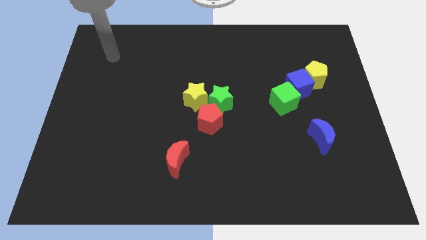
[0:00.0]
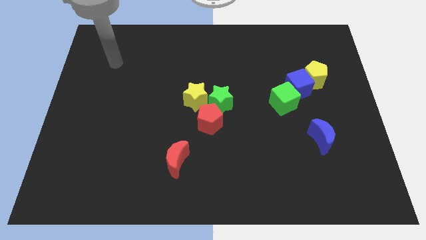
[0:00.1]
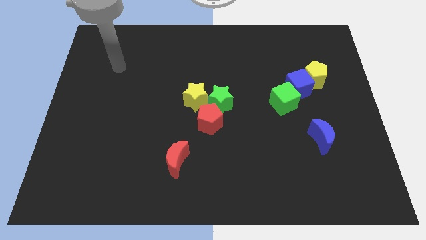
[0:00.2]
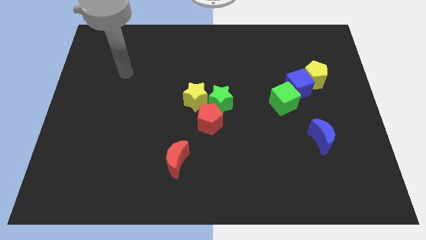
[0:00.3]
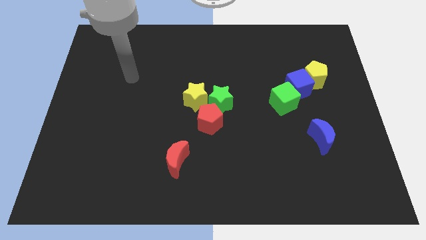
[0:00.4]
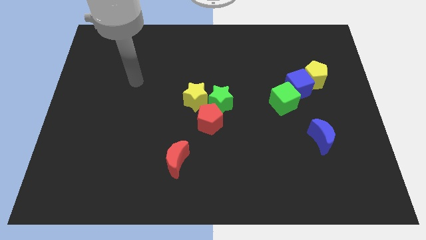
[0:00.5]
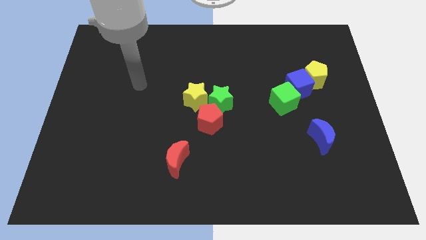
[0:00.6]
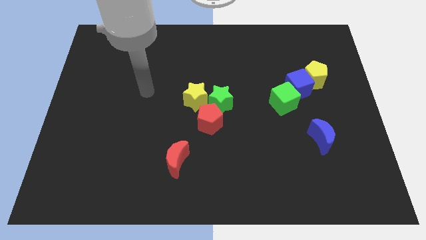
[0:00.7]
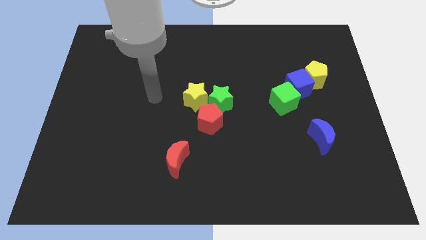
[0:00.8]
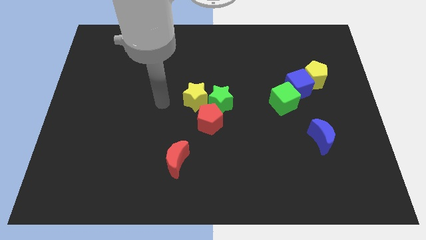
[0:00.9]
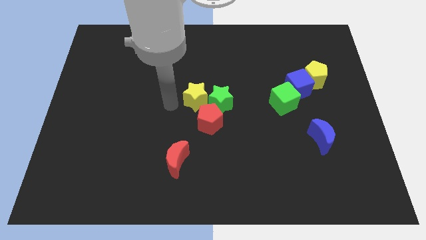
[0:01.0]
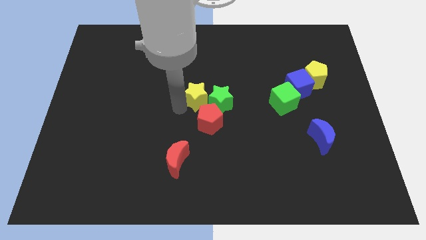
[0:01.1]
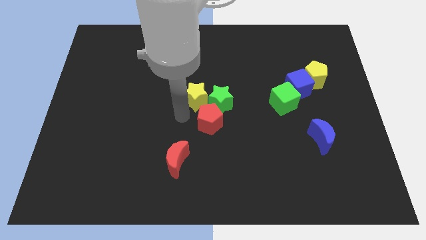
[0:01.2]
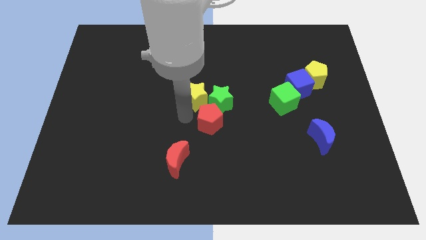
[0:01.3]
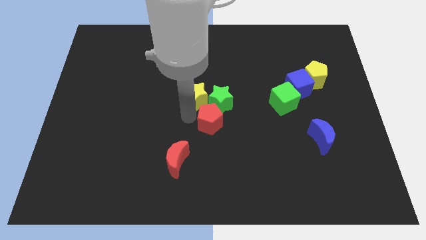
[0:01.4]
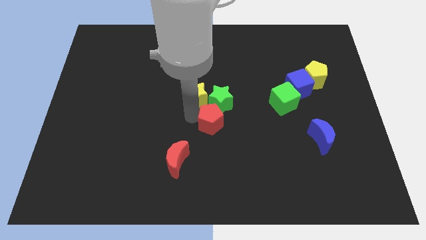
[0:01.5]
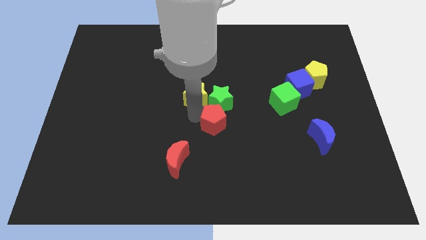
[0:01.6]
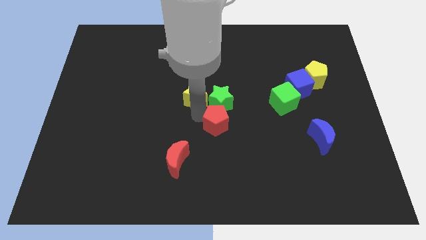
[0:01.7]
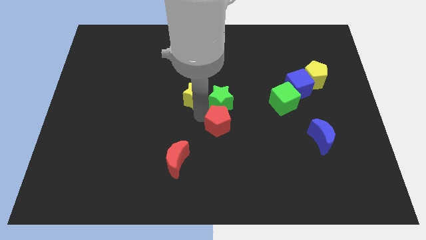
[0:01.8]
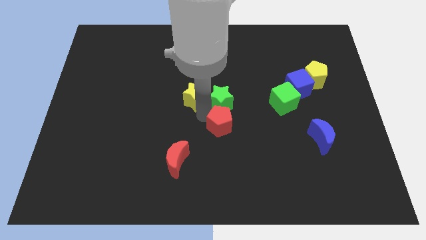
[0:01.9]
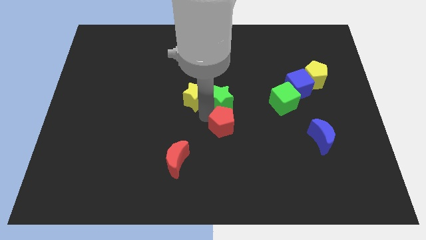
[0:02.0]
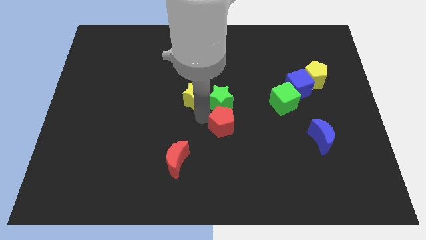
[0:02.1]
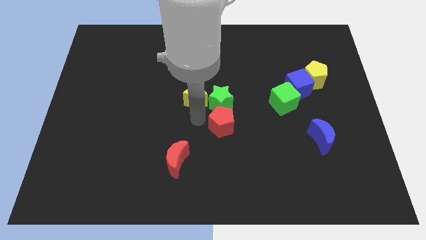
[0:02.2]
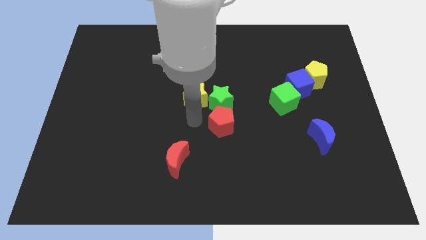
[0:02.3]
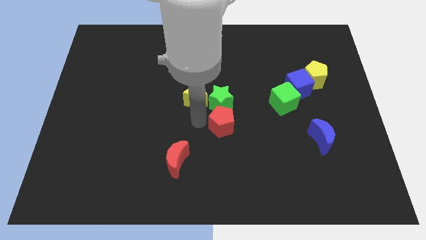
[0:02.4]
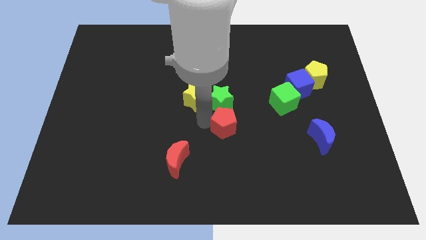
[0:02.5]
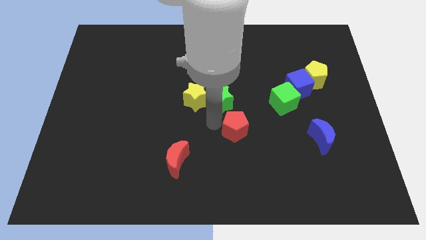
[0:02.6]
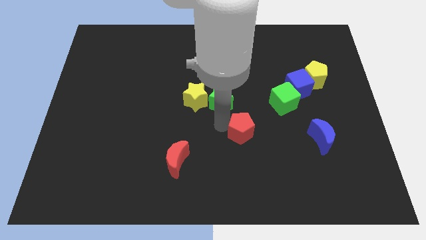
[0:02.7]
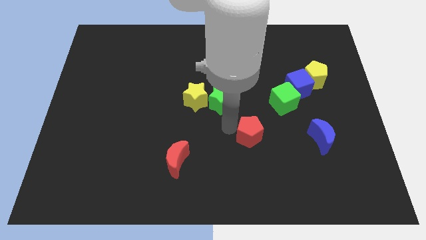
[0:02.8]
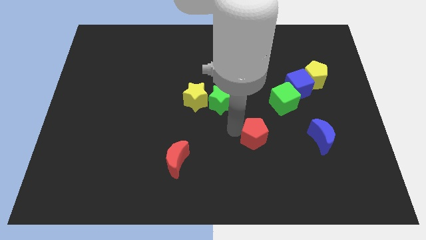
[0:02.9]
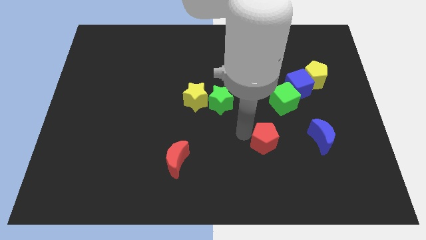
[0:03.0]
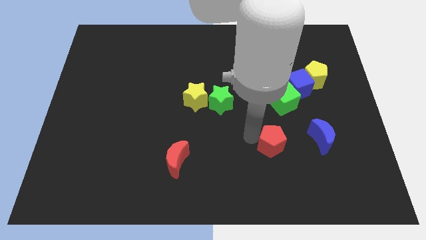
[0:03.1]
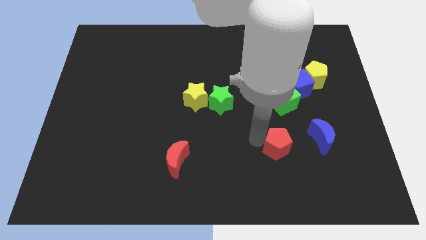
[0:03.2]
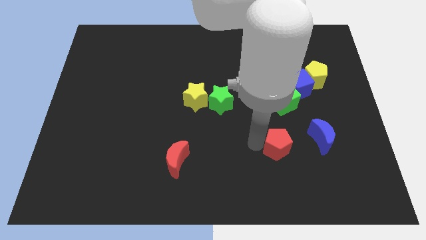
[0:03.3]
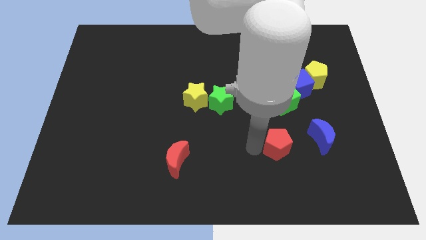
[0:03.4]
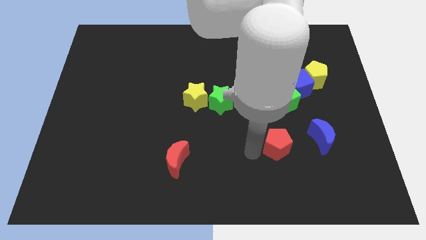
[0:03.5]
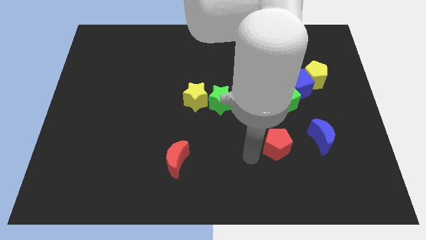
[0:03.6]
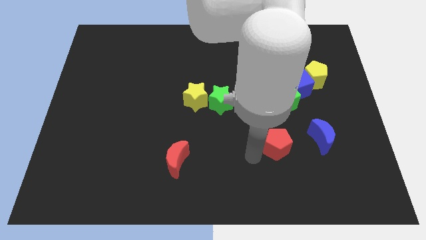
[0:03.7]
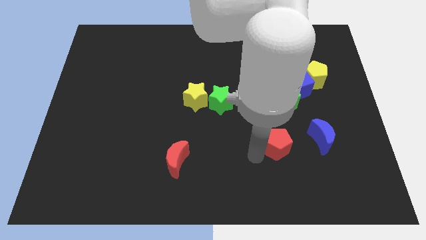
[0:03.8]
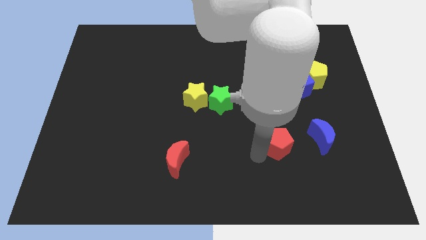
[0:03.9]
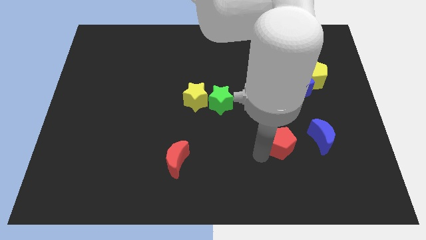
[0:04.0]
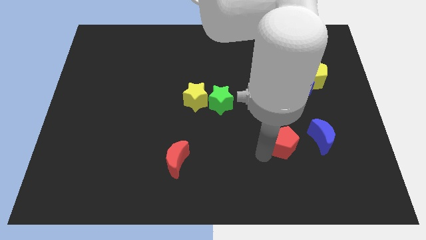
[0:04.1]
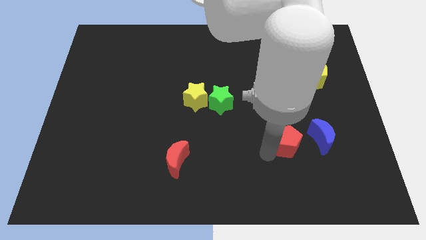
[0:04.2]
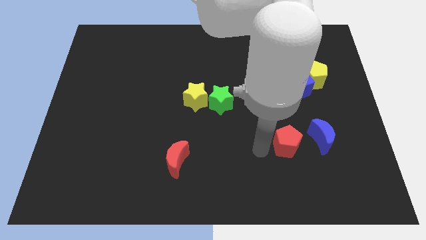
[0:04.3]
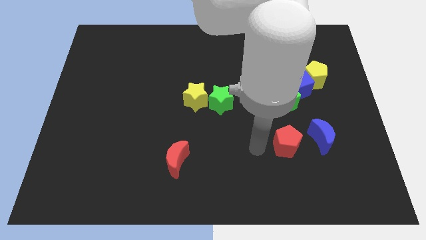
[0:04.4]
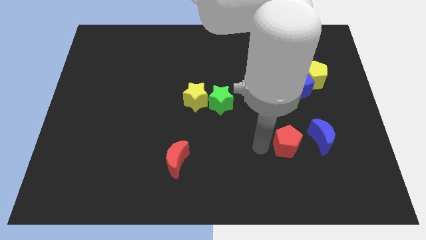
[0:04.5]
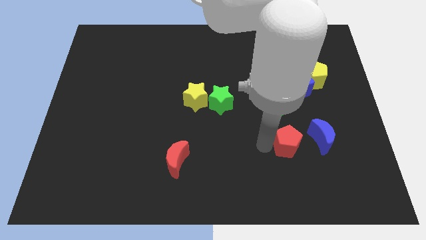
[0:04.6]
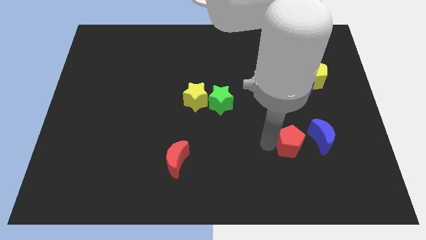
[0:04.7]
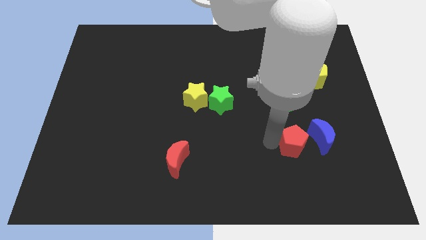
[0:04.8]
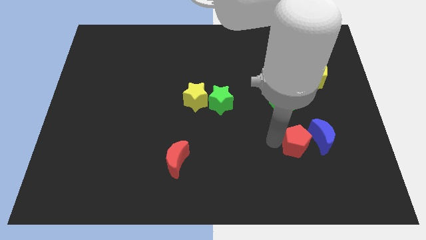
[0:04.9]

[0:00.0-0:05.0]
put the red pentagon to the blue moon

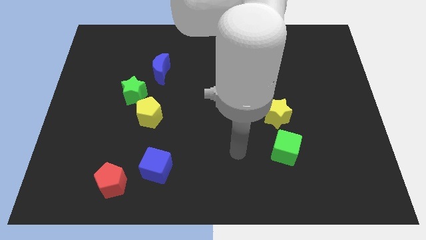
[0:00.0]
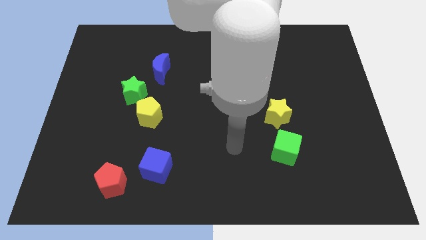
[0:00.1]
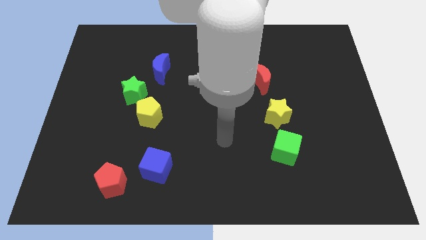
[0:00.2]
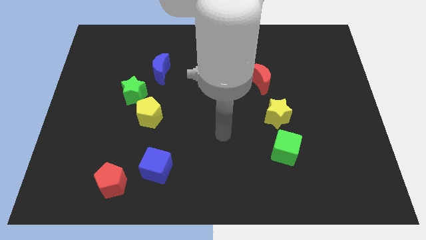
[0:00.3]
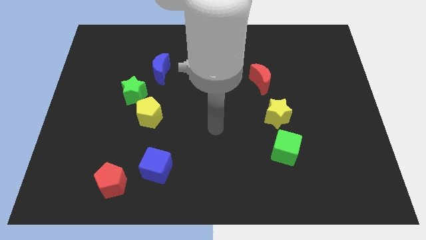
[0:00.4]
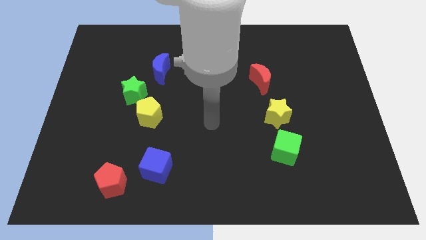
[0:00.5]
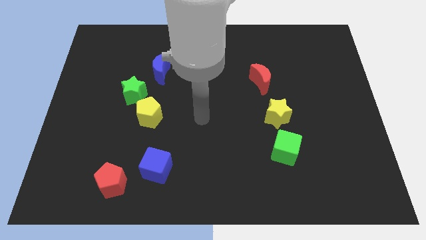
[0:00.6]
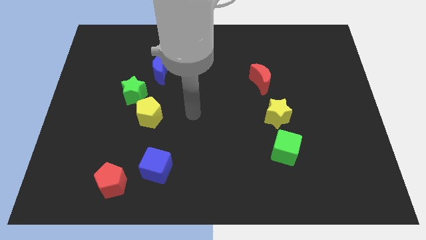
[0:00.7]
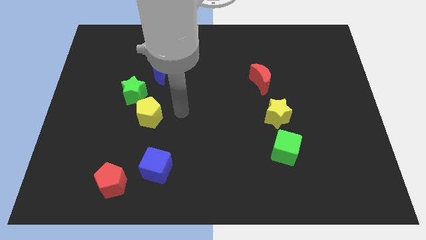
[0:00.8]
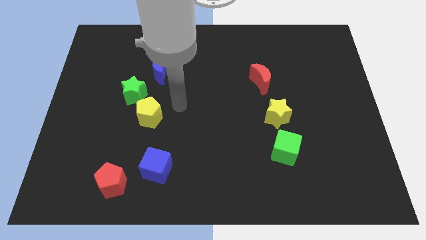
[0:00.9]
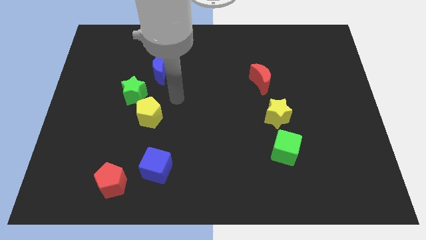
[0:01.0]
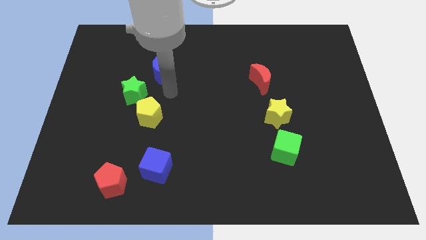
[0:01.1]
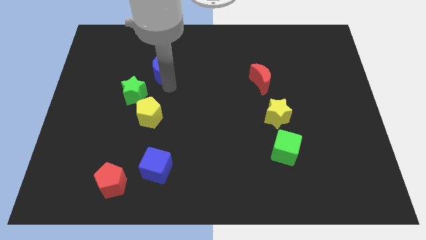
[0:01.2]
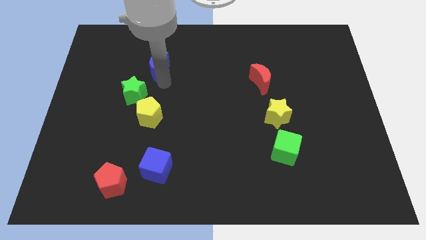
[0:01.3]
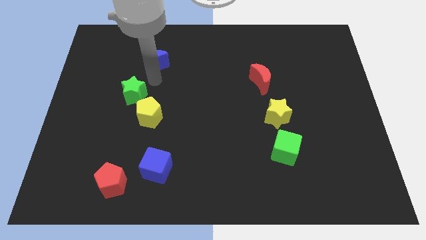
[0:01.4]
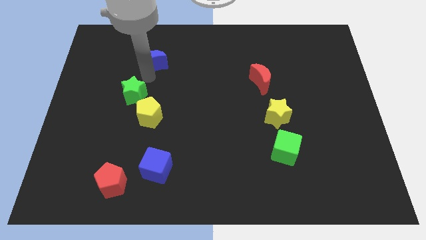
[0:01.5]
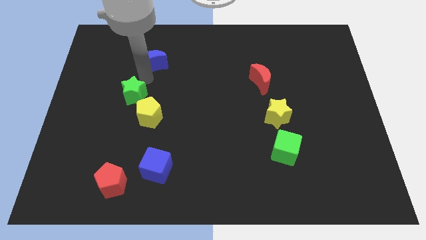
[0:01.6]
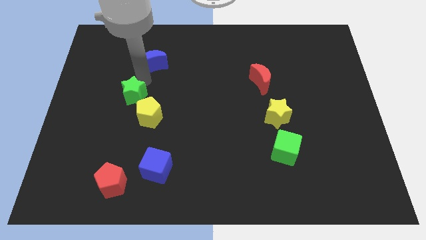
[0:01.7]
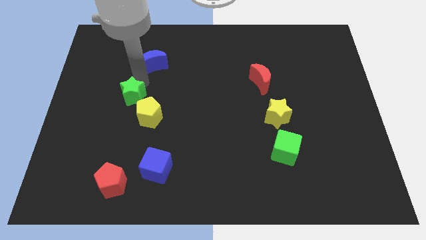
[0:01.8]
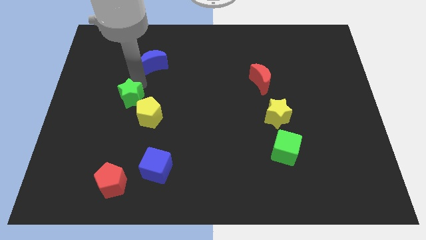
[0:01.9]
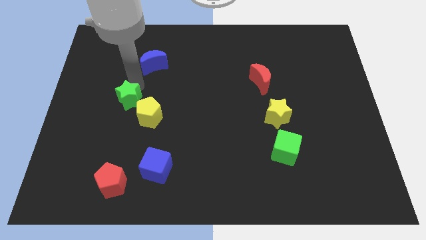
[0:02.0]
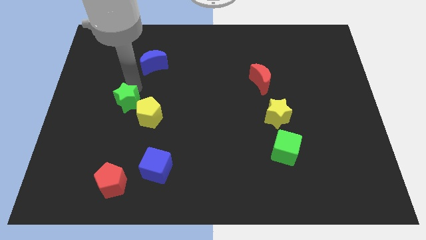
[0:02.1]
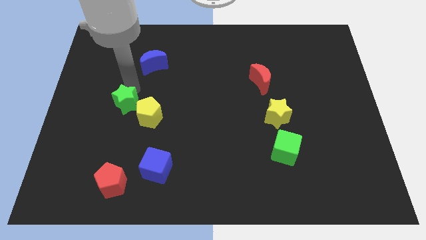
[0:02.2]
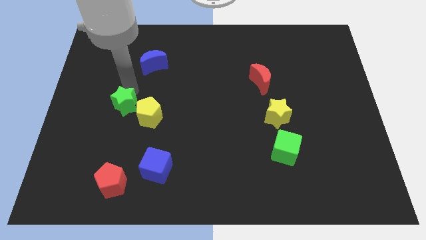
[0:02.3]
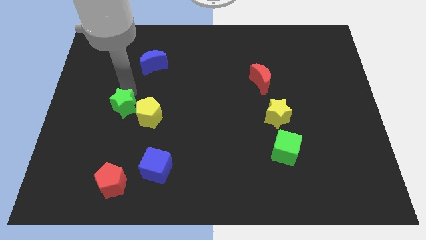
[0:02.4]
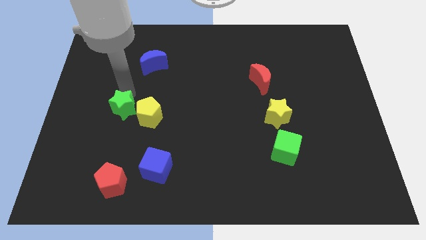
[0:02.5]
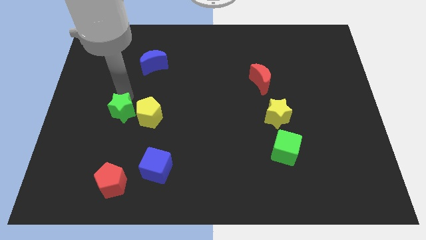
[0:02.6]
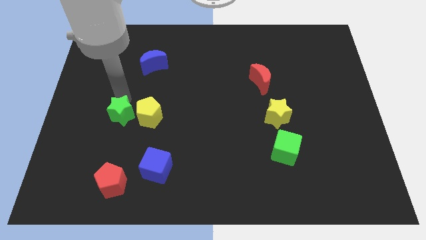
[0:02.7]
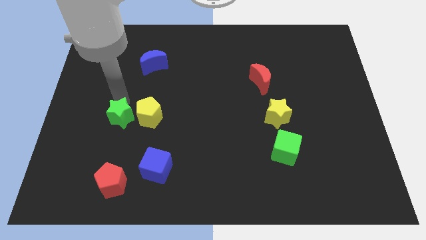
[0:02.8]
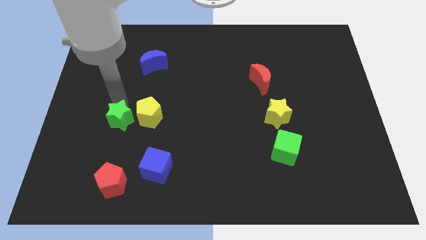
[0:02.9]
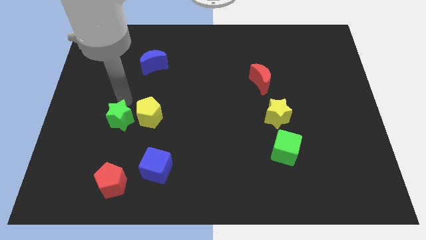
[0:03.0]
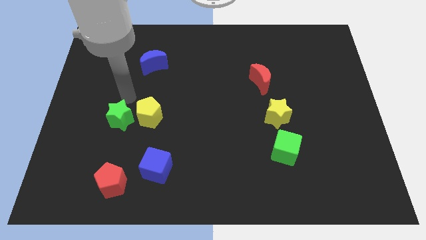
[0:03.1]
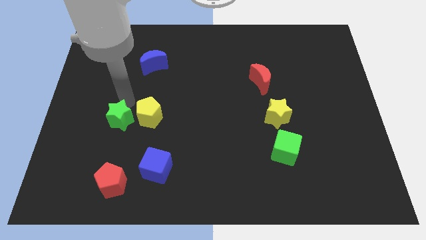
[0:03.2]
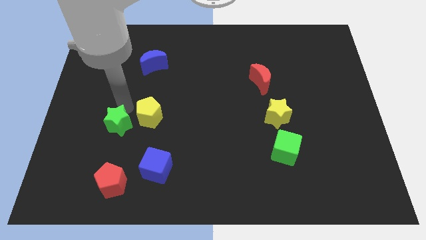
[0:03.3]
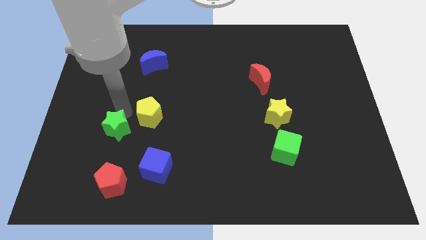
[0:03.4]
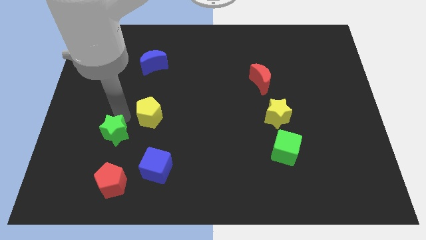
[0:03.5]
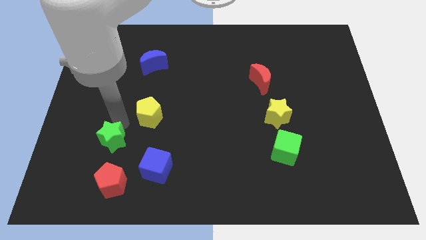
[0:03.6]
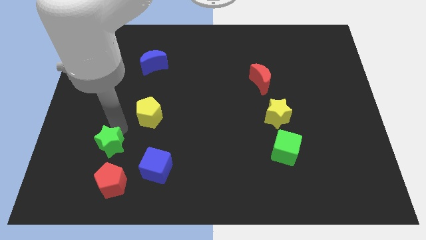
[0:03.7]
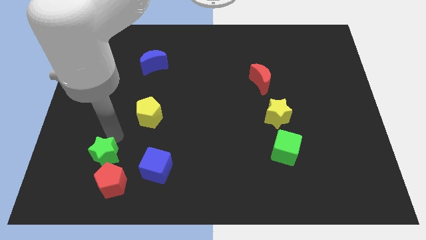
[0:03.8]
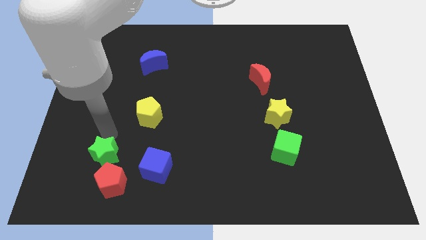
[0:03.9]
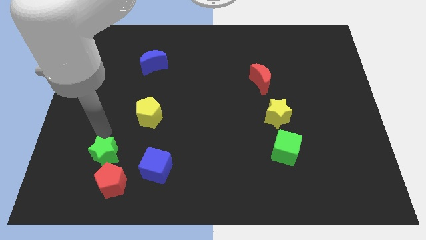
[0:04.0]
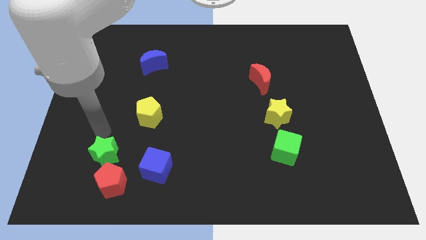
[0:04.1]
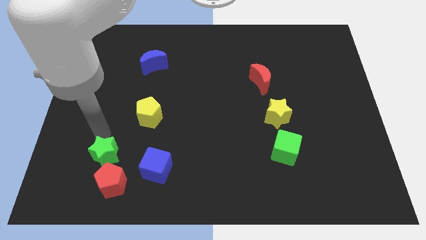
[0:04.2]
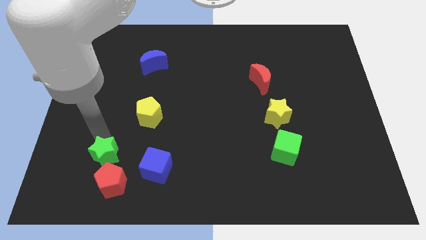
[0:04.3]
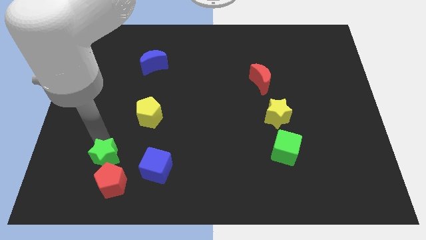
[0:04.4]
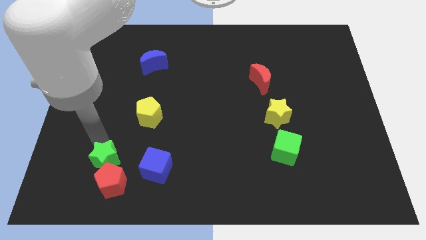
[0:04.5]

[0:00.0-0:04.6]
put the green star towards the red pentagon
